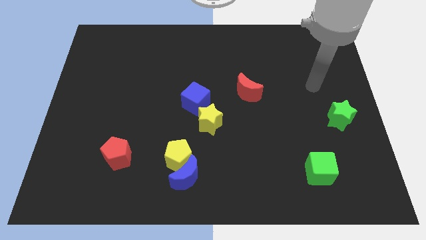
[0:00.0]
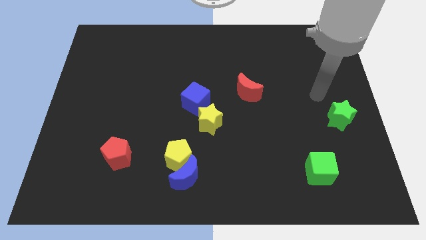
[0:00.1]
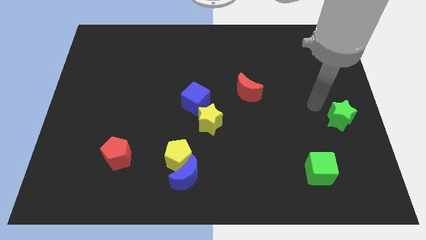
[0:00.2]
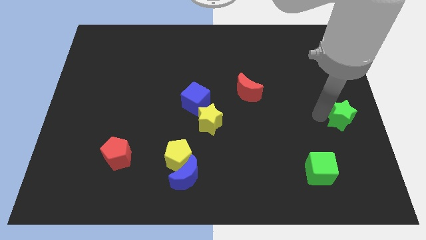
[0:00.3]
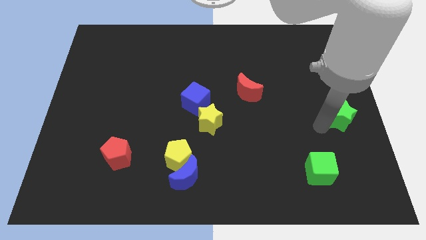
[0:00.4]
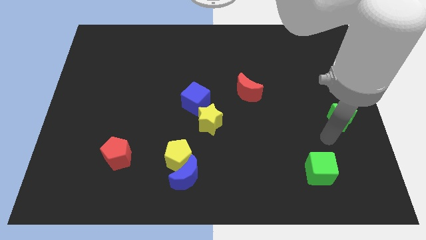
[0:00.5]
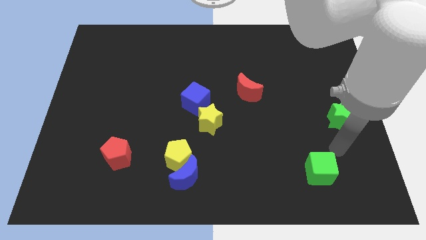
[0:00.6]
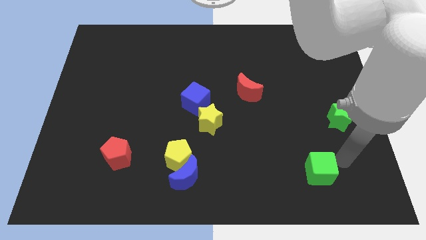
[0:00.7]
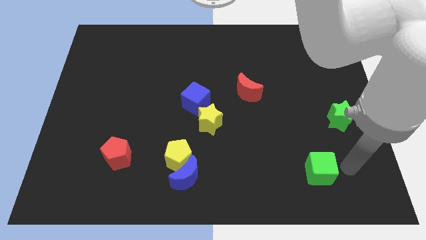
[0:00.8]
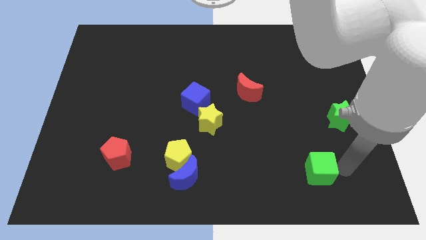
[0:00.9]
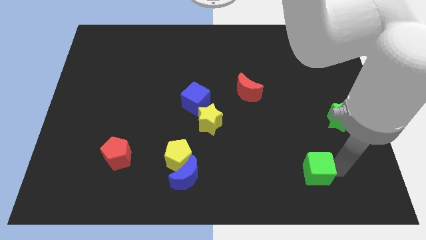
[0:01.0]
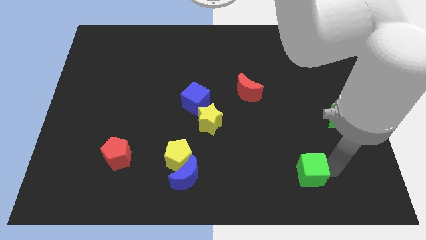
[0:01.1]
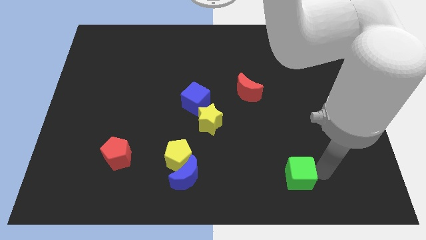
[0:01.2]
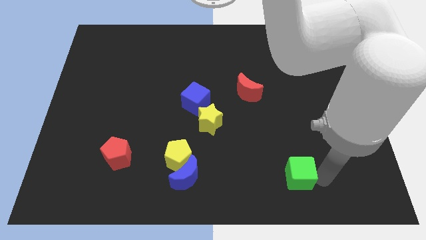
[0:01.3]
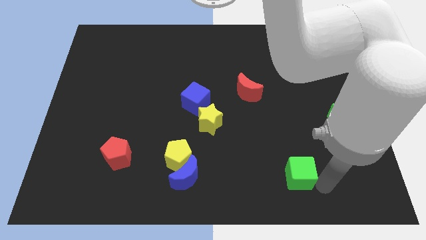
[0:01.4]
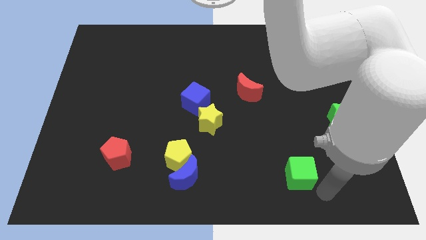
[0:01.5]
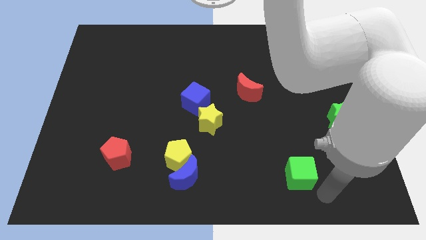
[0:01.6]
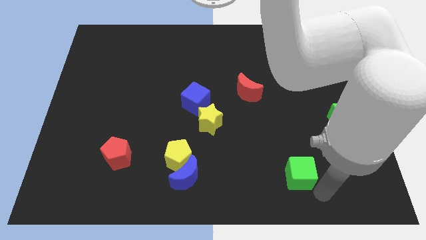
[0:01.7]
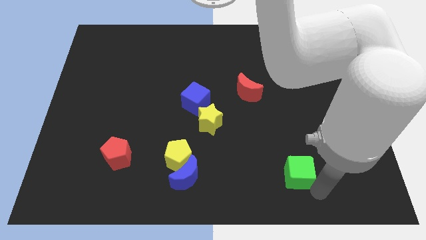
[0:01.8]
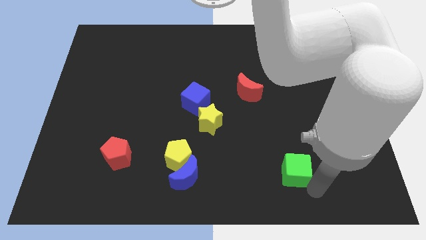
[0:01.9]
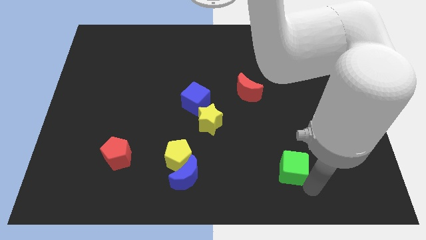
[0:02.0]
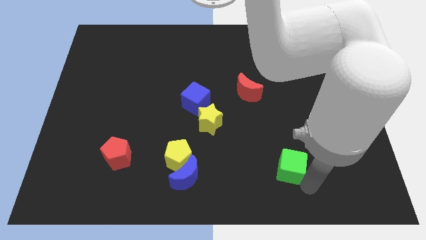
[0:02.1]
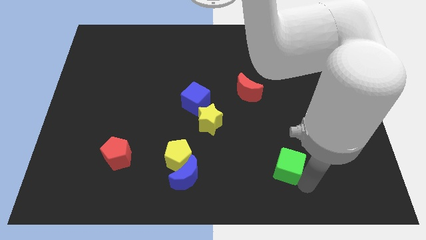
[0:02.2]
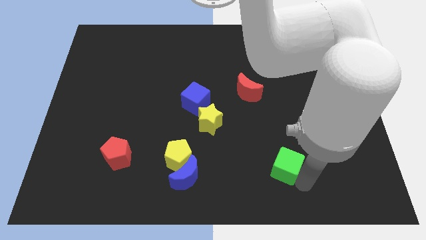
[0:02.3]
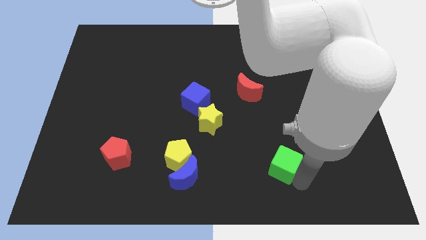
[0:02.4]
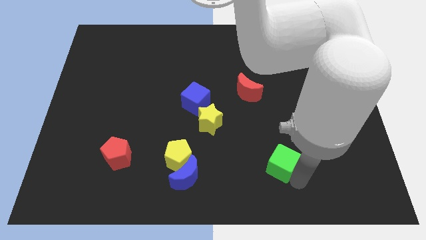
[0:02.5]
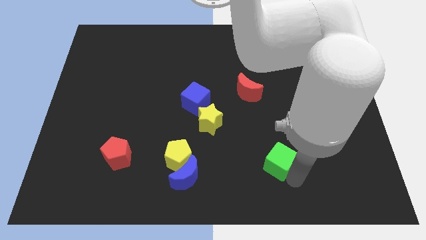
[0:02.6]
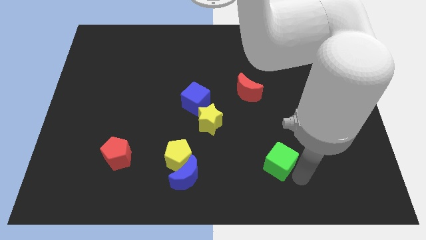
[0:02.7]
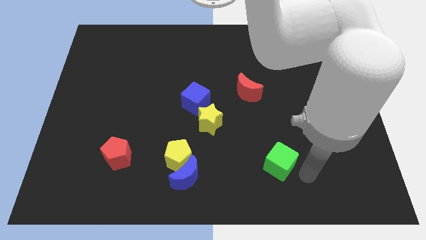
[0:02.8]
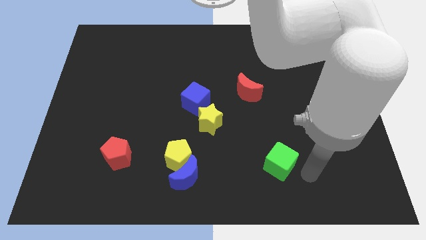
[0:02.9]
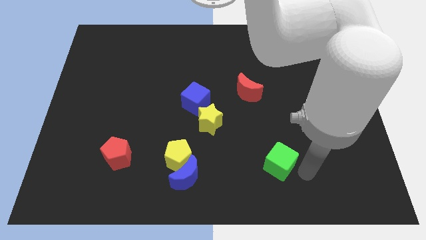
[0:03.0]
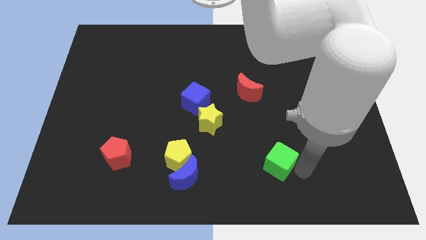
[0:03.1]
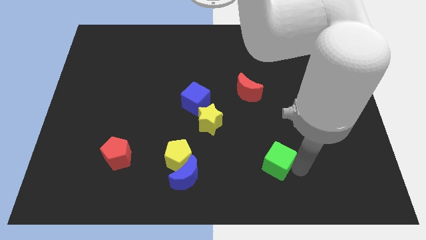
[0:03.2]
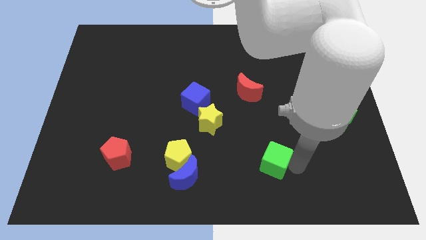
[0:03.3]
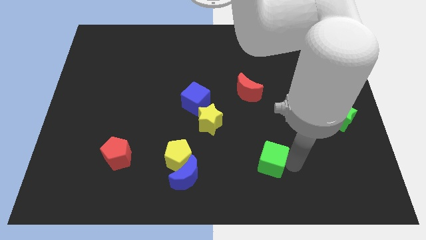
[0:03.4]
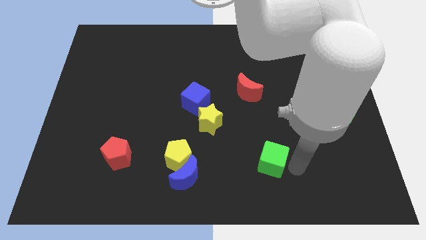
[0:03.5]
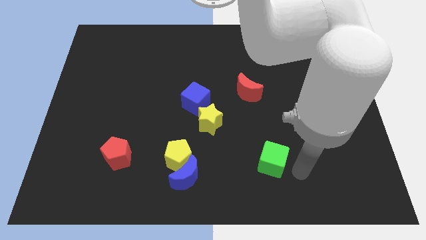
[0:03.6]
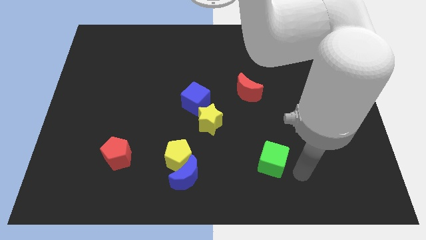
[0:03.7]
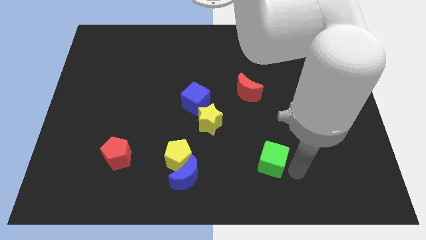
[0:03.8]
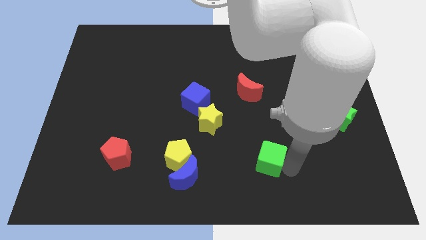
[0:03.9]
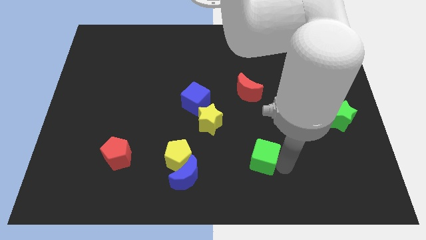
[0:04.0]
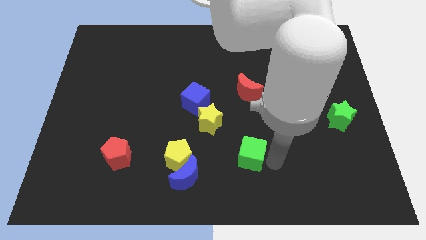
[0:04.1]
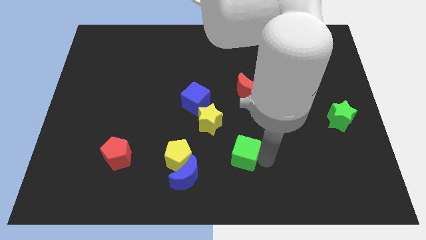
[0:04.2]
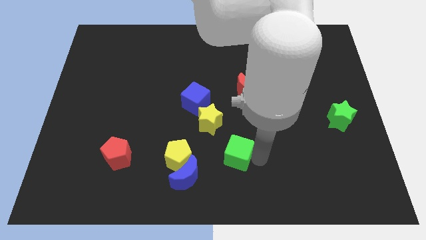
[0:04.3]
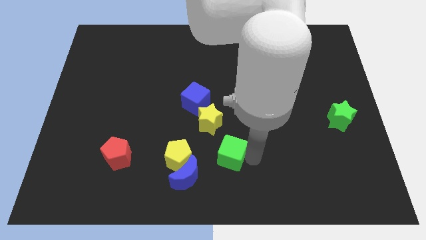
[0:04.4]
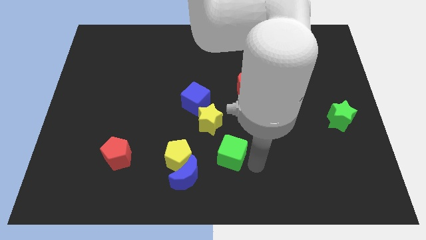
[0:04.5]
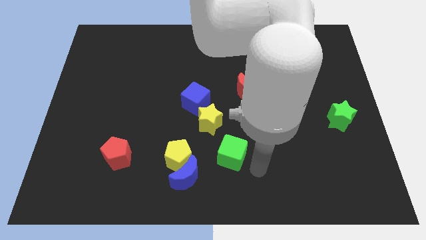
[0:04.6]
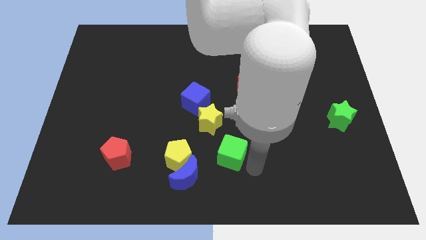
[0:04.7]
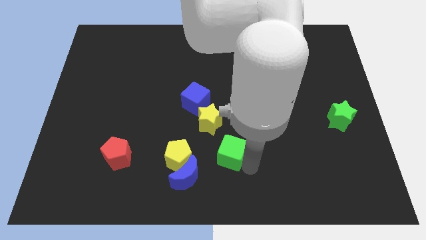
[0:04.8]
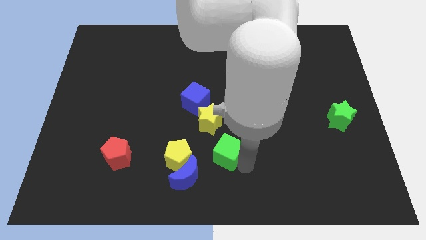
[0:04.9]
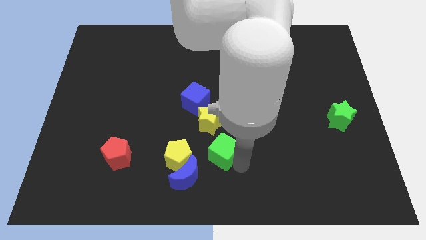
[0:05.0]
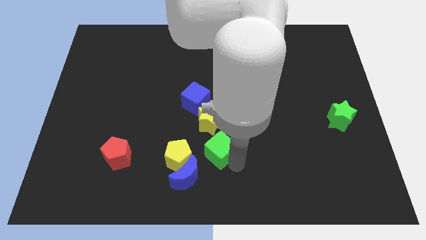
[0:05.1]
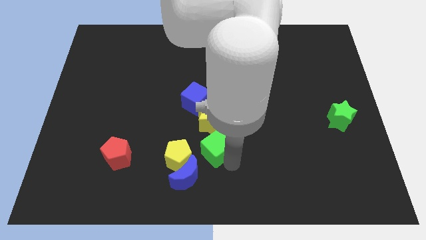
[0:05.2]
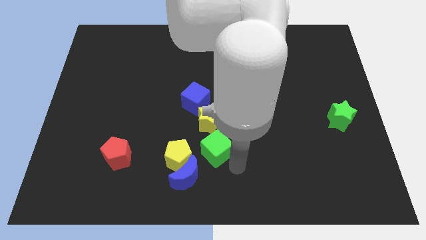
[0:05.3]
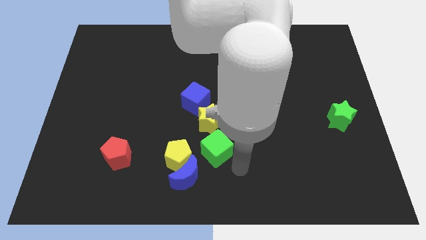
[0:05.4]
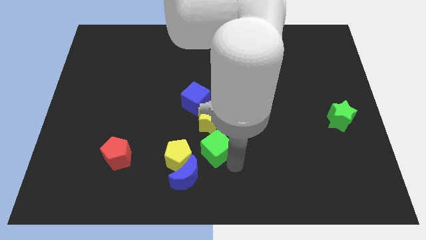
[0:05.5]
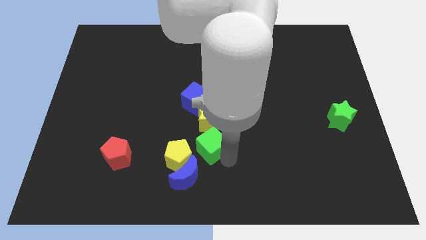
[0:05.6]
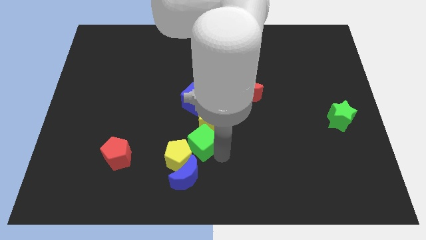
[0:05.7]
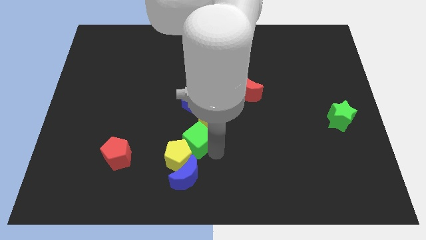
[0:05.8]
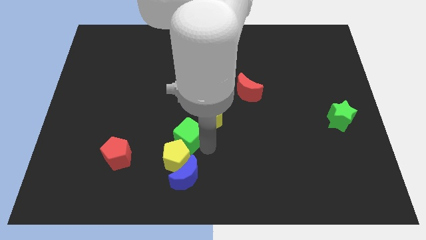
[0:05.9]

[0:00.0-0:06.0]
slide the green cube to the left side of the yellow star

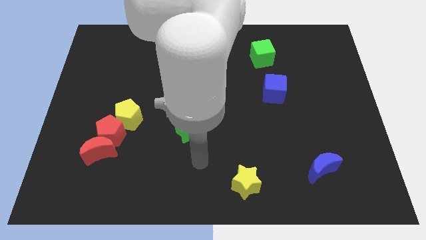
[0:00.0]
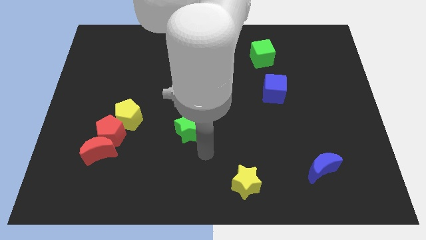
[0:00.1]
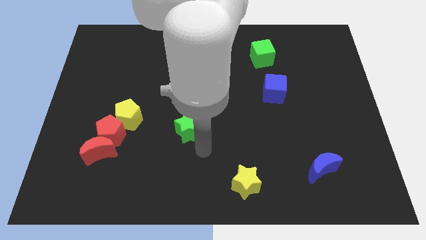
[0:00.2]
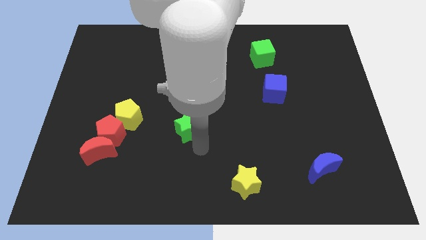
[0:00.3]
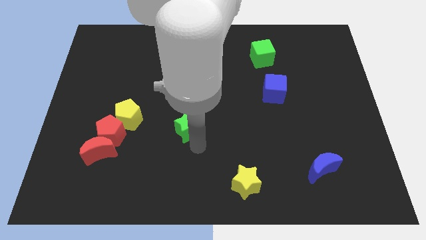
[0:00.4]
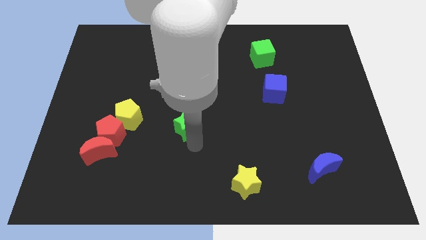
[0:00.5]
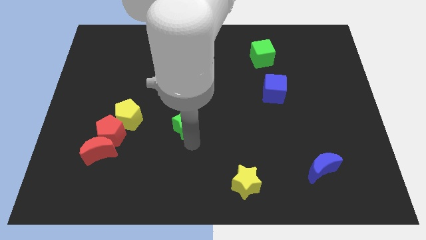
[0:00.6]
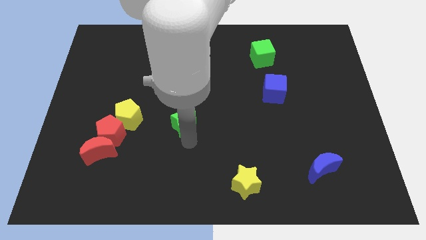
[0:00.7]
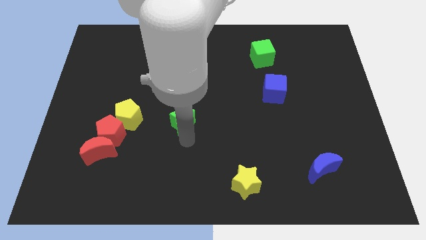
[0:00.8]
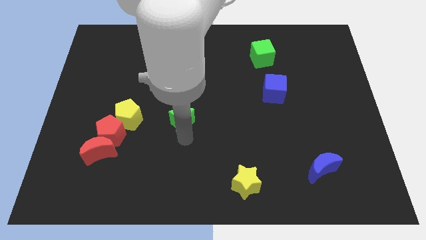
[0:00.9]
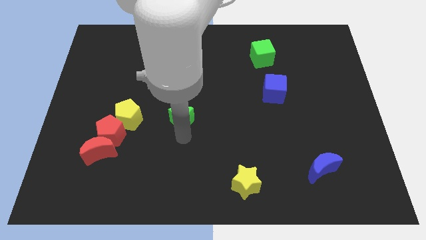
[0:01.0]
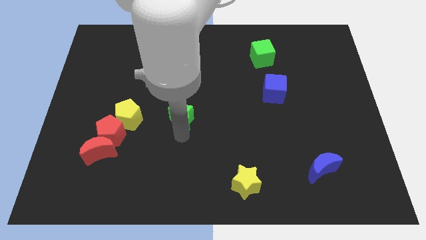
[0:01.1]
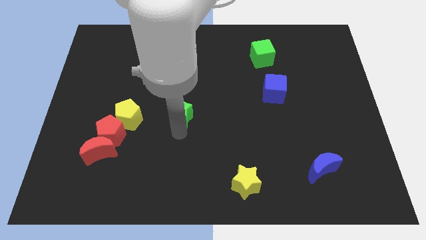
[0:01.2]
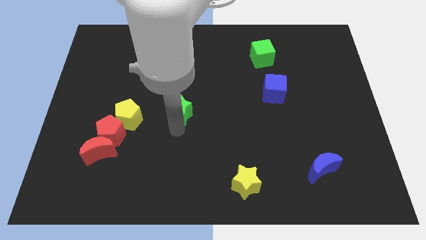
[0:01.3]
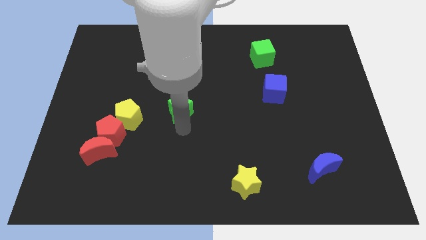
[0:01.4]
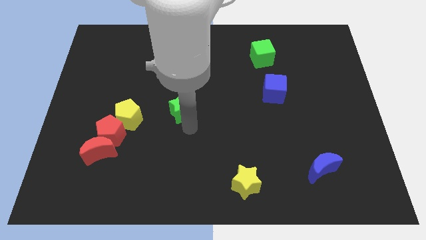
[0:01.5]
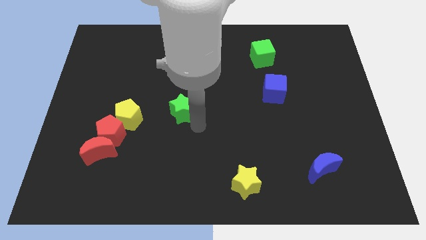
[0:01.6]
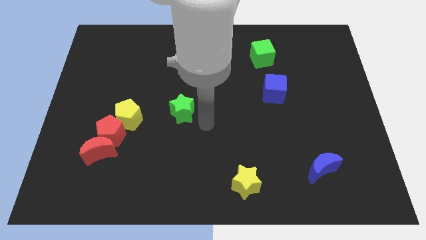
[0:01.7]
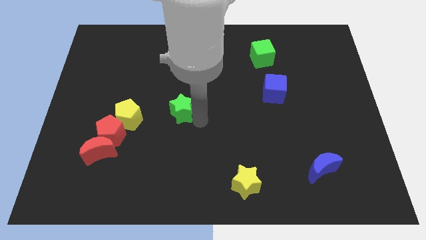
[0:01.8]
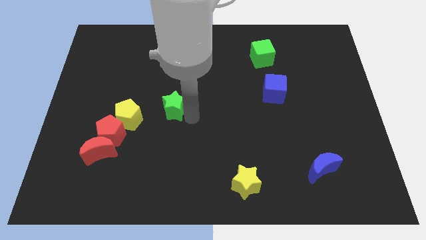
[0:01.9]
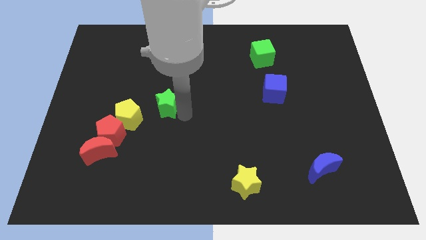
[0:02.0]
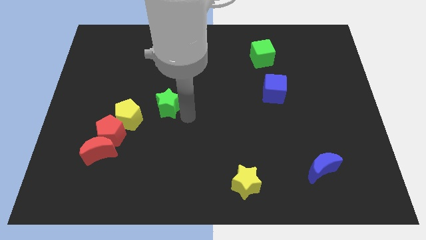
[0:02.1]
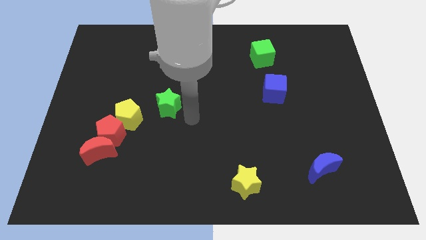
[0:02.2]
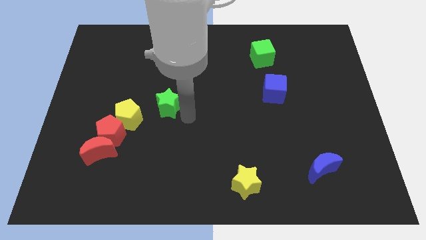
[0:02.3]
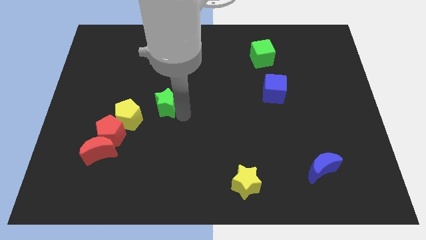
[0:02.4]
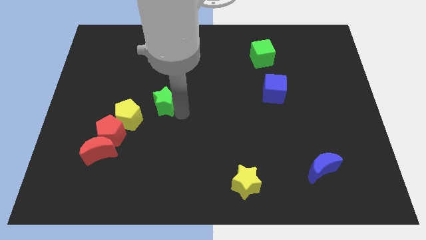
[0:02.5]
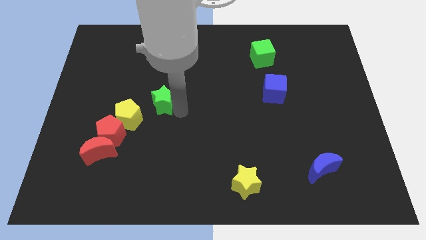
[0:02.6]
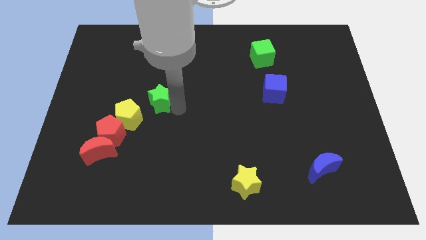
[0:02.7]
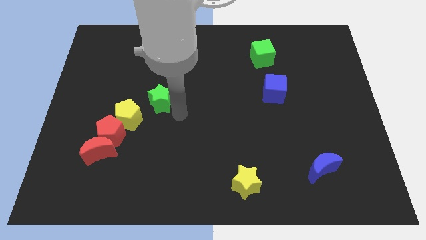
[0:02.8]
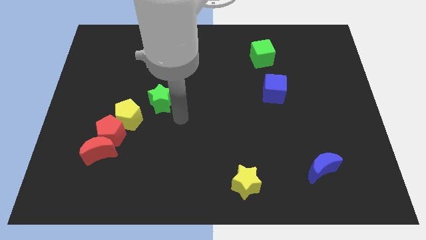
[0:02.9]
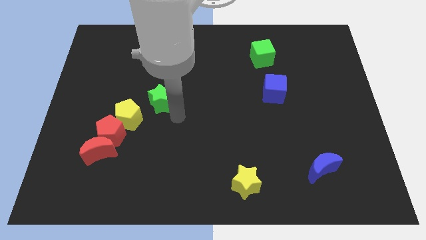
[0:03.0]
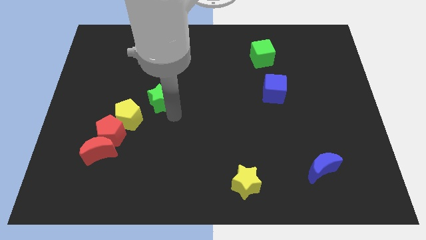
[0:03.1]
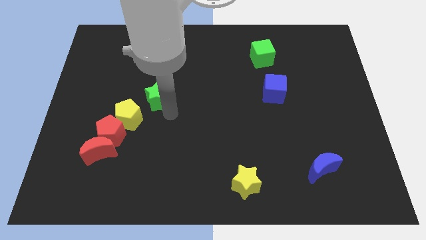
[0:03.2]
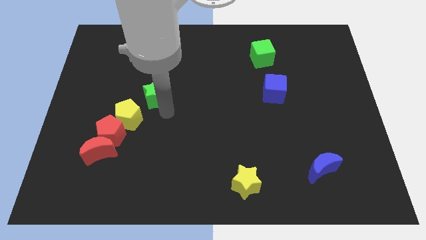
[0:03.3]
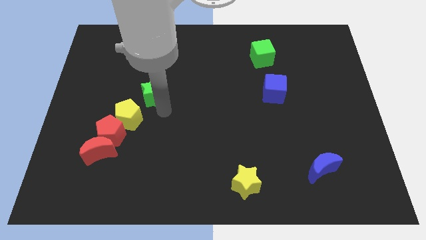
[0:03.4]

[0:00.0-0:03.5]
move the green star to the top of the yellow pentagon
